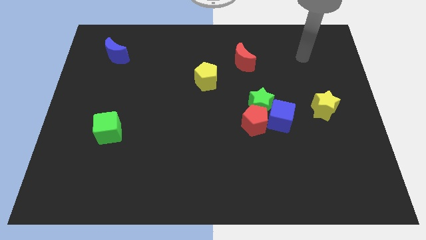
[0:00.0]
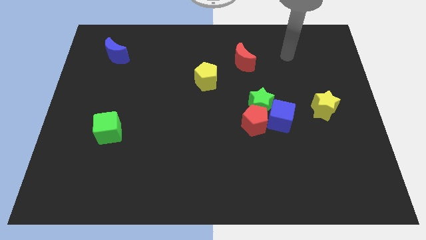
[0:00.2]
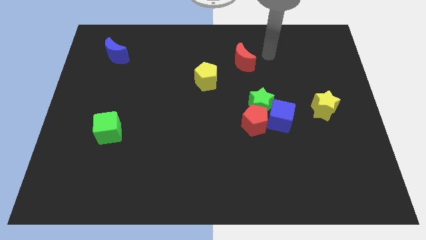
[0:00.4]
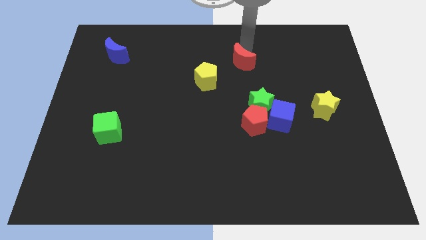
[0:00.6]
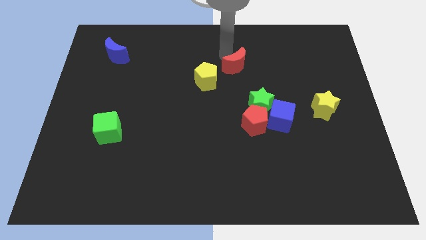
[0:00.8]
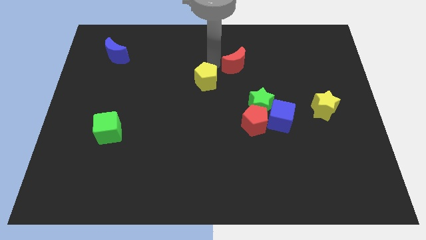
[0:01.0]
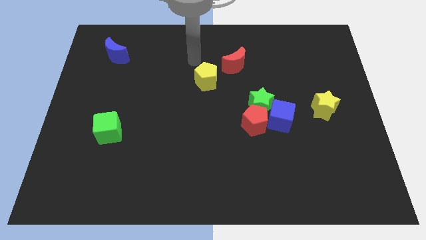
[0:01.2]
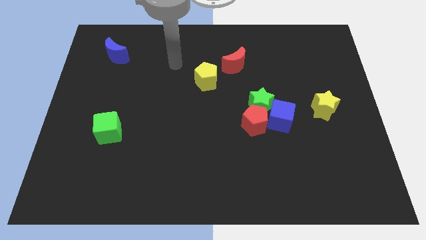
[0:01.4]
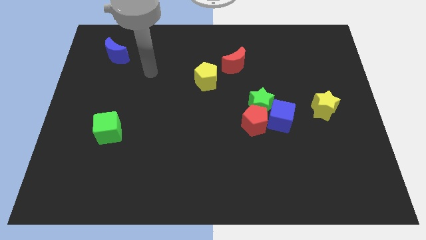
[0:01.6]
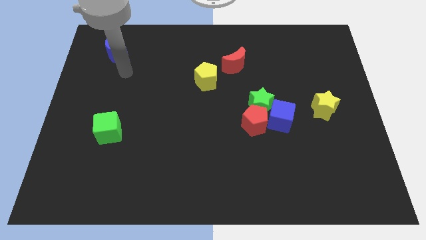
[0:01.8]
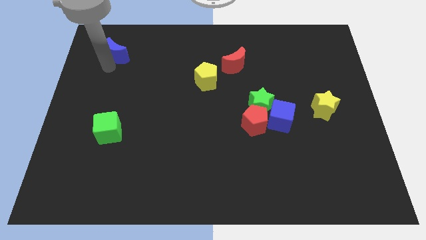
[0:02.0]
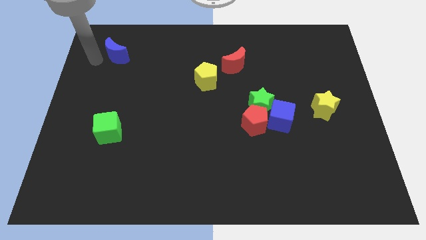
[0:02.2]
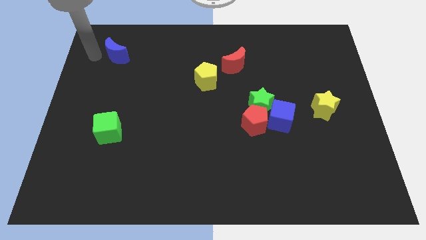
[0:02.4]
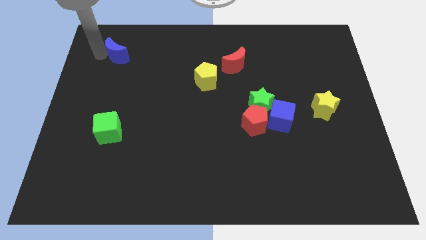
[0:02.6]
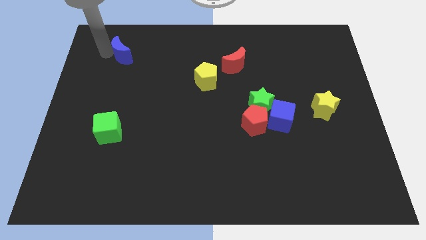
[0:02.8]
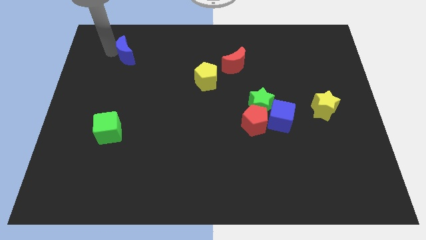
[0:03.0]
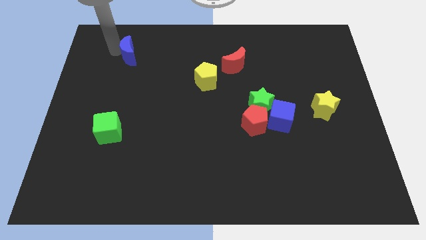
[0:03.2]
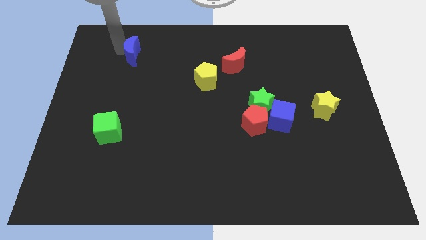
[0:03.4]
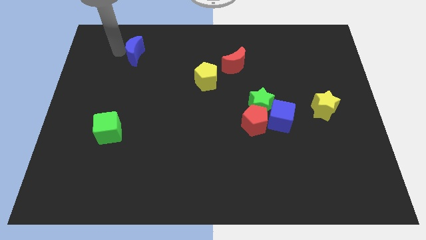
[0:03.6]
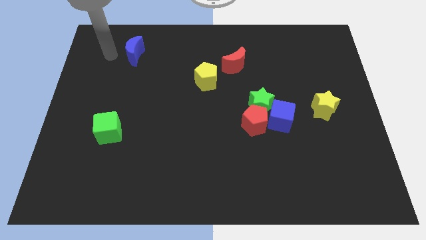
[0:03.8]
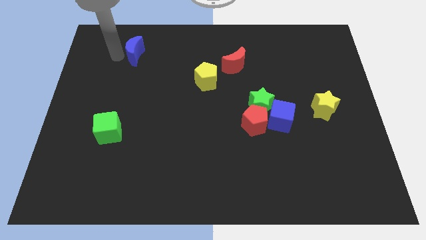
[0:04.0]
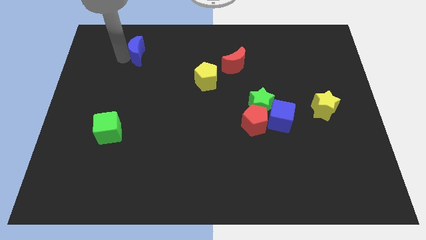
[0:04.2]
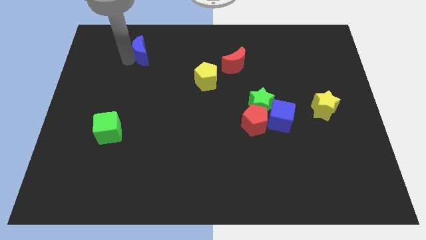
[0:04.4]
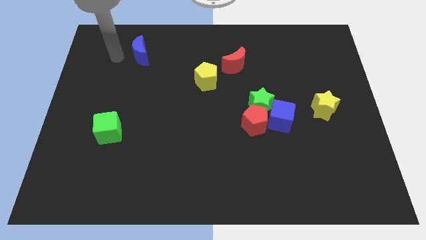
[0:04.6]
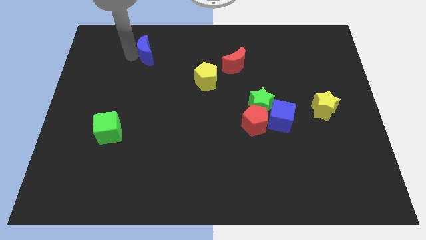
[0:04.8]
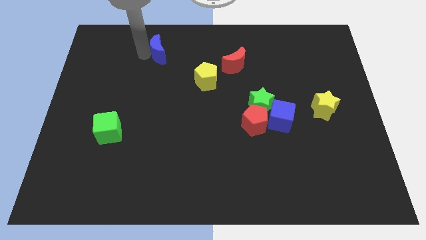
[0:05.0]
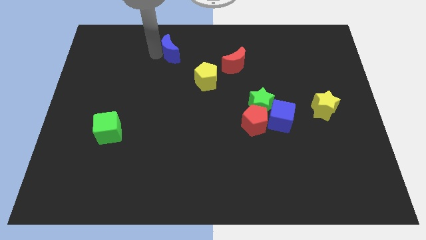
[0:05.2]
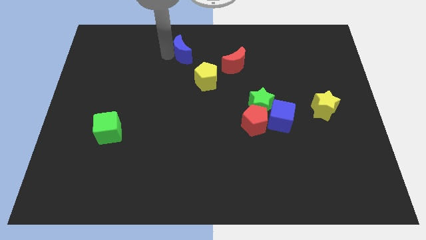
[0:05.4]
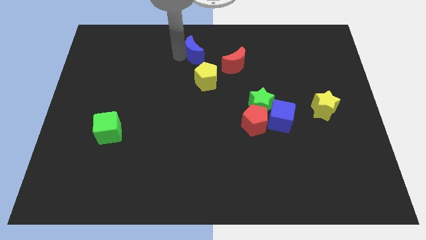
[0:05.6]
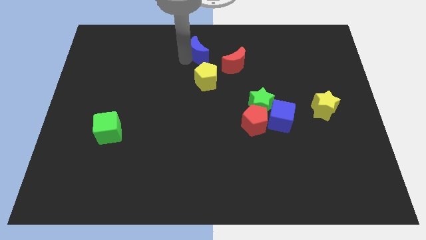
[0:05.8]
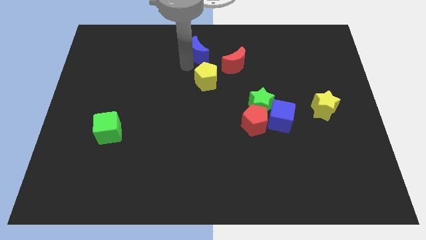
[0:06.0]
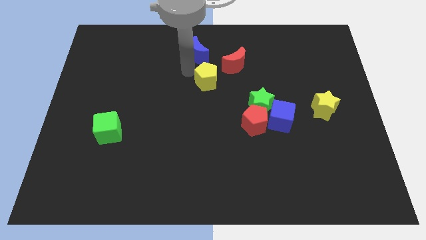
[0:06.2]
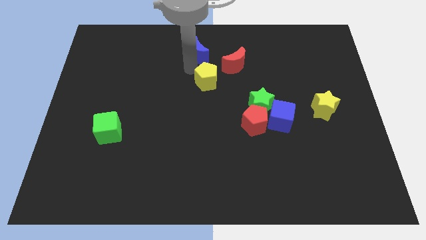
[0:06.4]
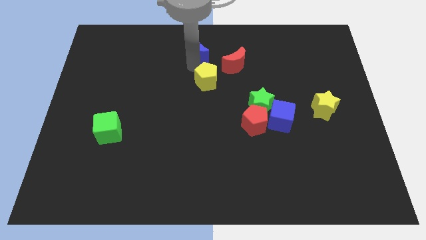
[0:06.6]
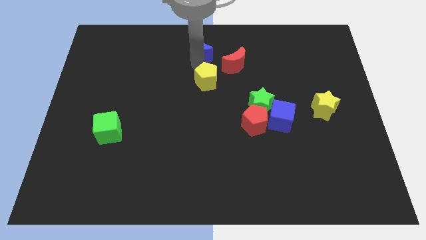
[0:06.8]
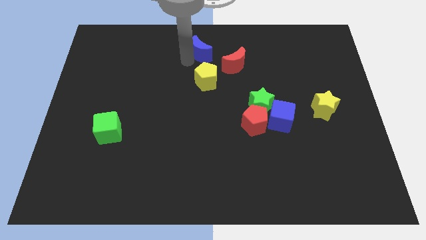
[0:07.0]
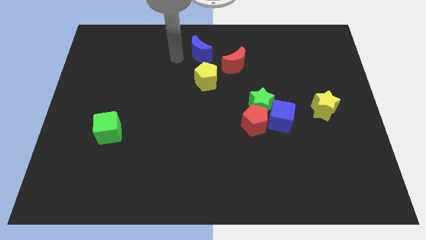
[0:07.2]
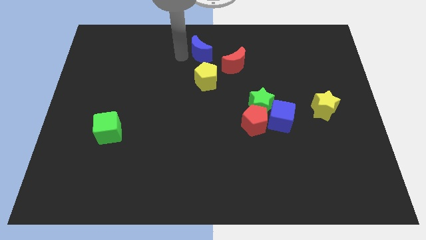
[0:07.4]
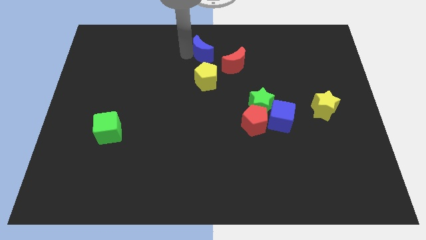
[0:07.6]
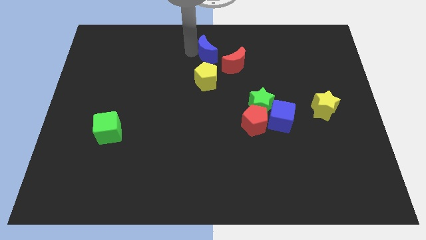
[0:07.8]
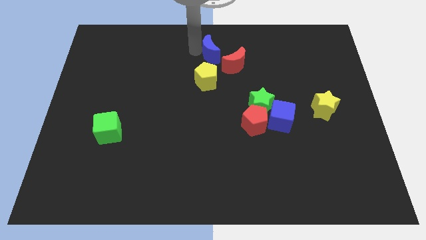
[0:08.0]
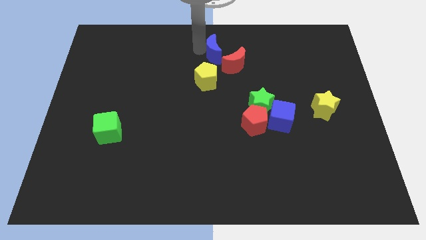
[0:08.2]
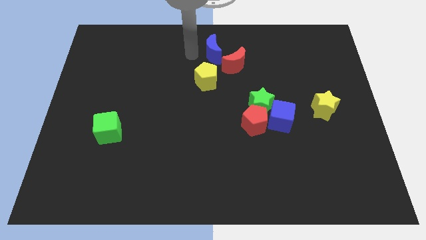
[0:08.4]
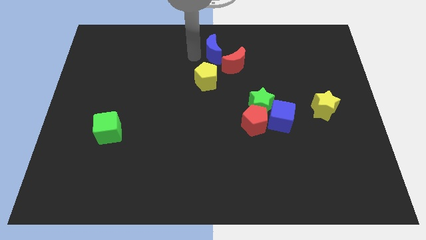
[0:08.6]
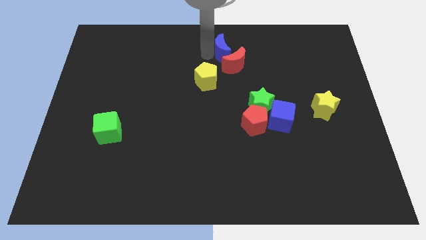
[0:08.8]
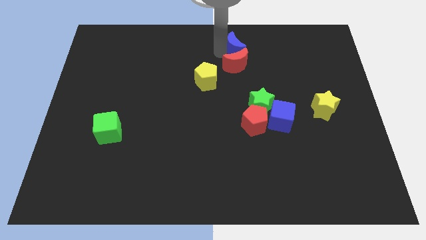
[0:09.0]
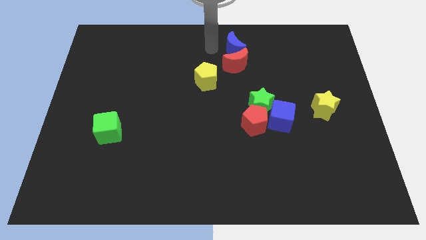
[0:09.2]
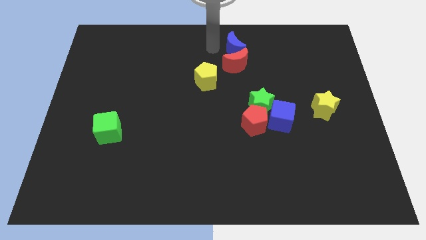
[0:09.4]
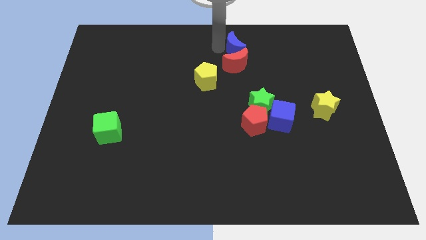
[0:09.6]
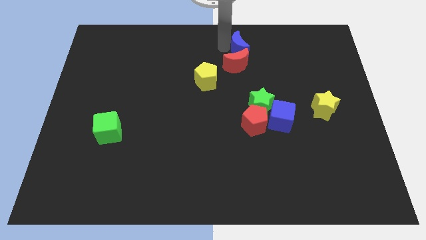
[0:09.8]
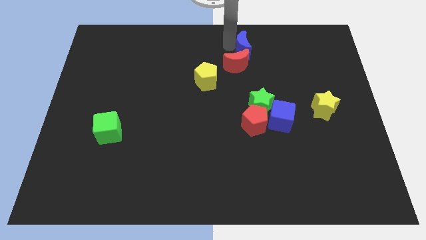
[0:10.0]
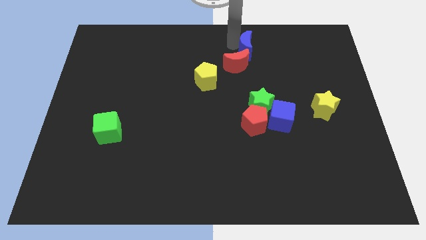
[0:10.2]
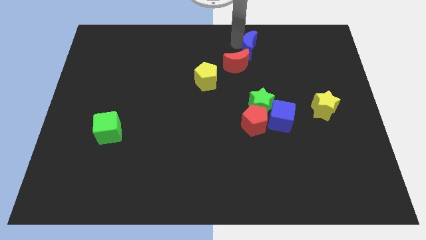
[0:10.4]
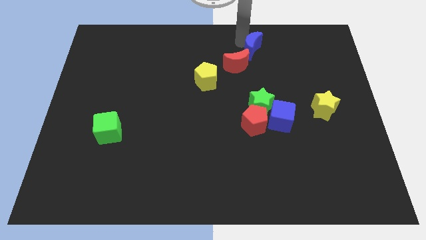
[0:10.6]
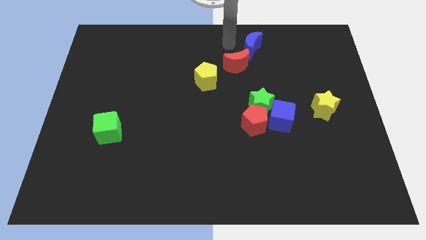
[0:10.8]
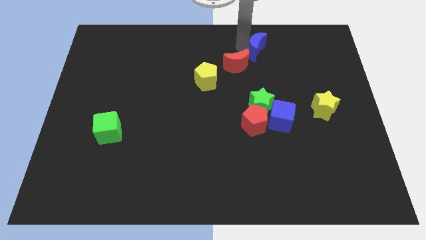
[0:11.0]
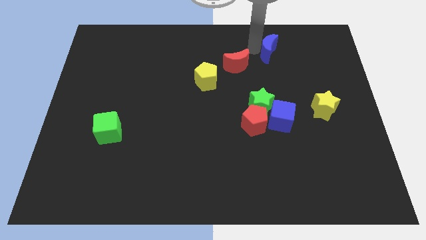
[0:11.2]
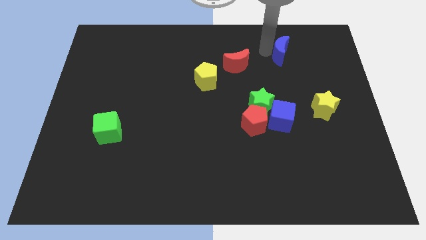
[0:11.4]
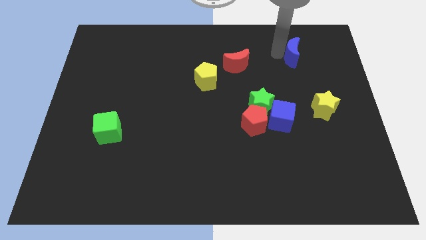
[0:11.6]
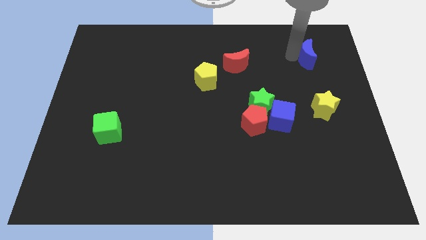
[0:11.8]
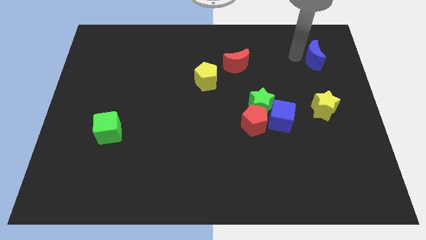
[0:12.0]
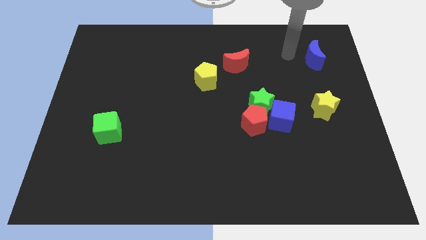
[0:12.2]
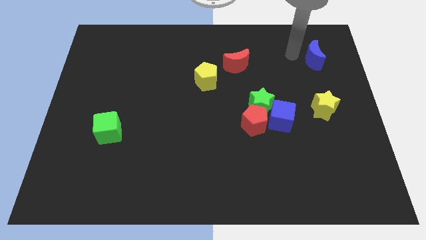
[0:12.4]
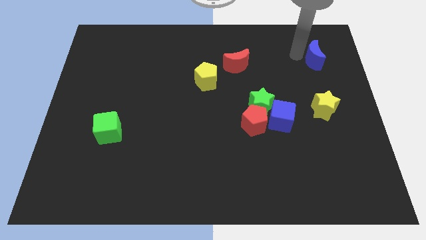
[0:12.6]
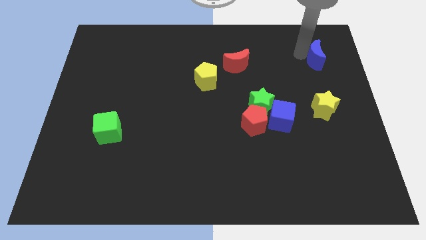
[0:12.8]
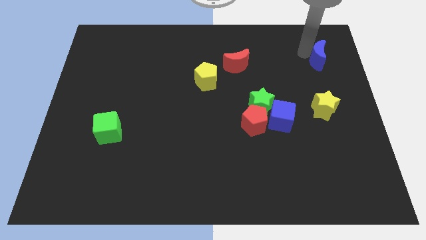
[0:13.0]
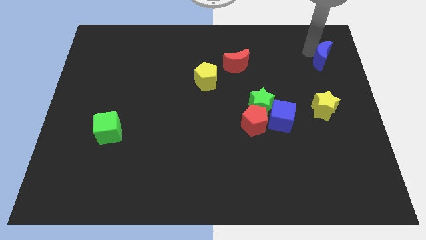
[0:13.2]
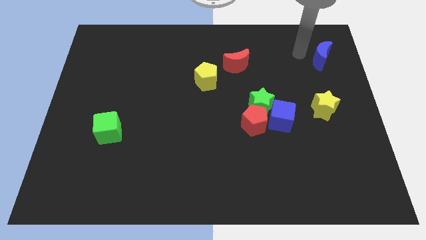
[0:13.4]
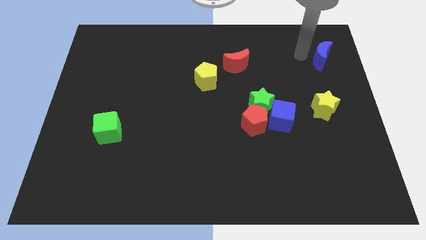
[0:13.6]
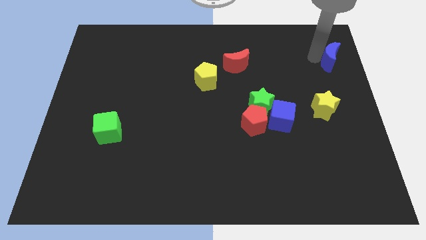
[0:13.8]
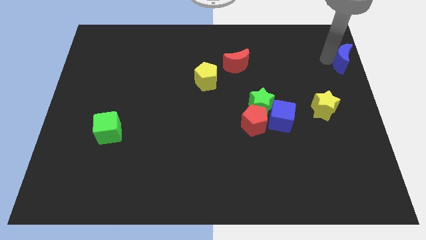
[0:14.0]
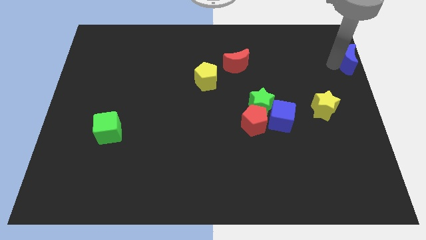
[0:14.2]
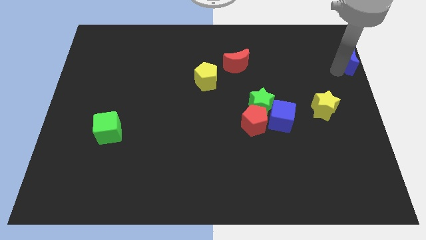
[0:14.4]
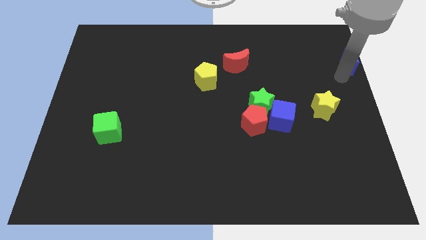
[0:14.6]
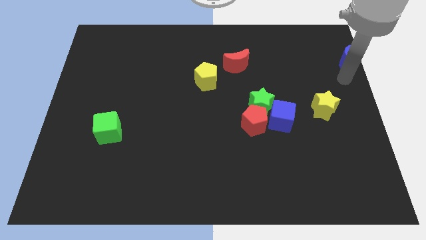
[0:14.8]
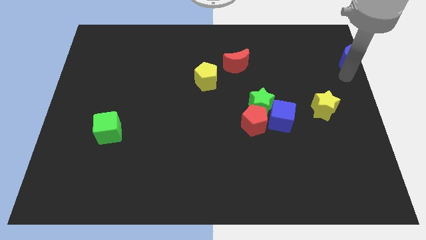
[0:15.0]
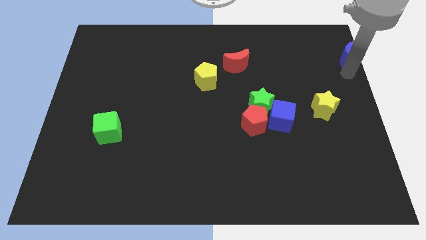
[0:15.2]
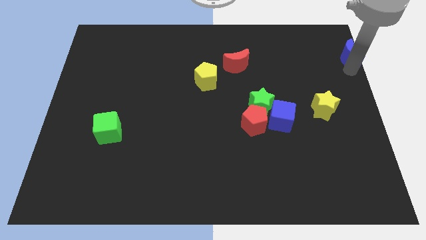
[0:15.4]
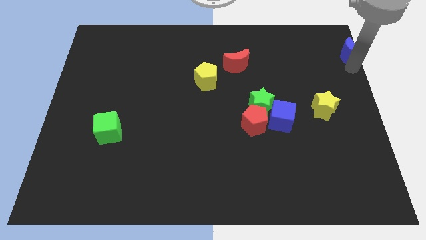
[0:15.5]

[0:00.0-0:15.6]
push the blue moon to the top right corner
